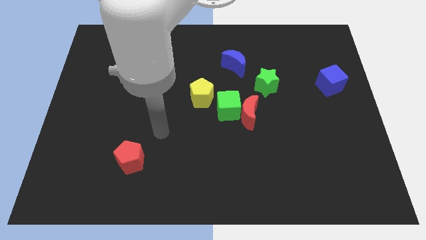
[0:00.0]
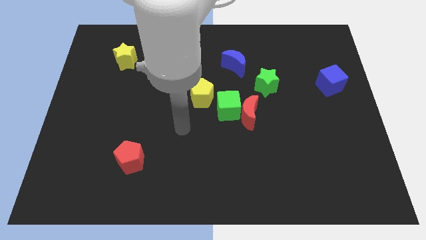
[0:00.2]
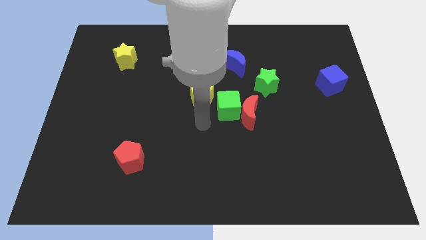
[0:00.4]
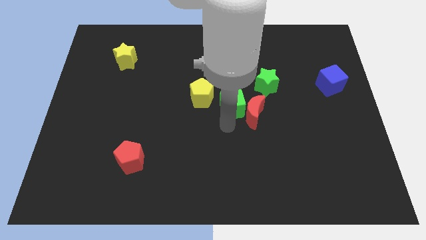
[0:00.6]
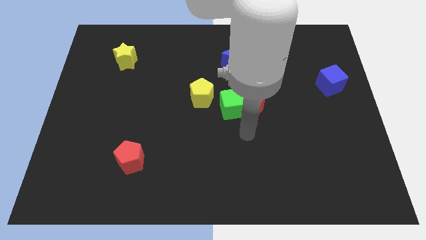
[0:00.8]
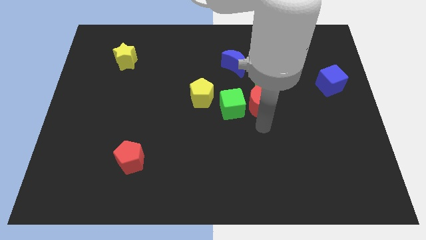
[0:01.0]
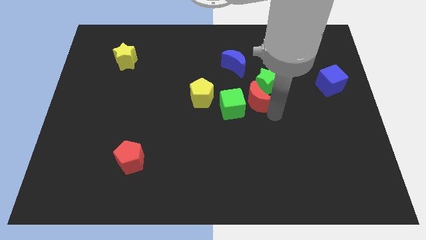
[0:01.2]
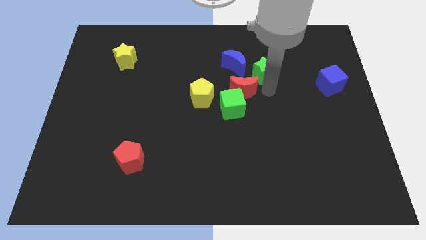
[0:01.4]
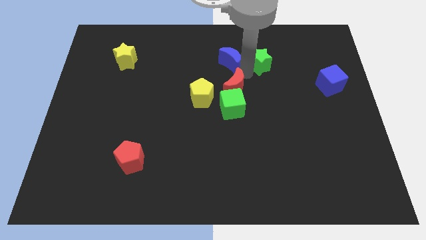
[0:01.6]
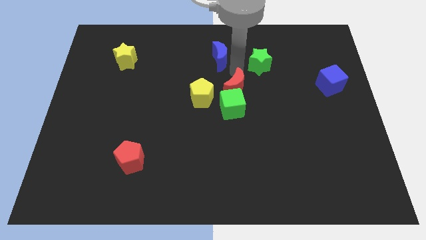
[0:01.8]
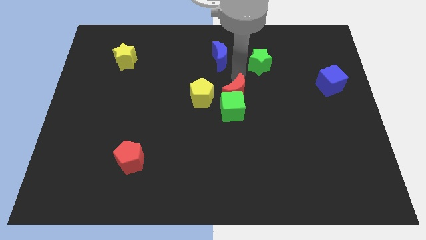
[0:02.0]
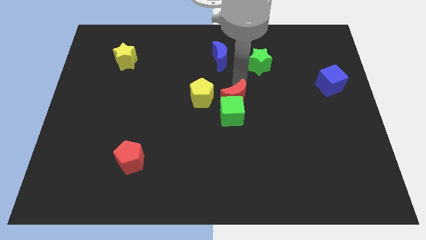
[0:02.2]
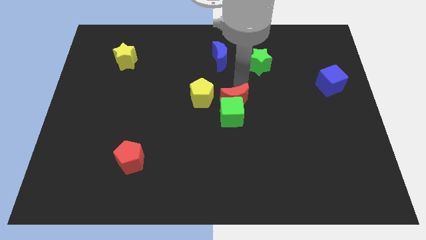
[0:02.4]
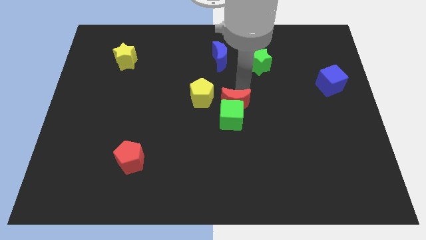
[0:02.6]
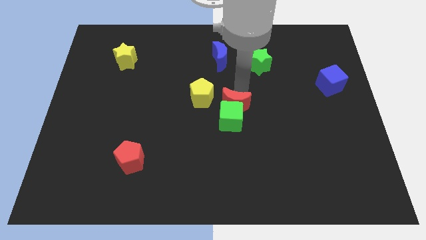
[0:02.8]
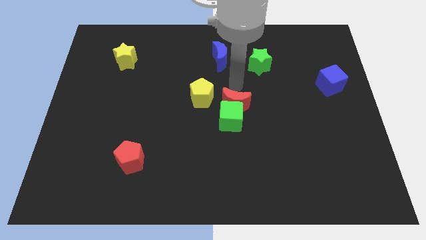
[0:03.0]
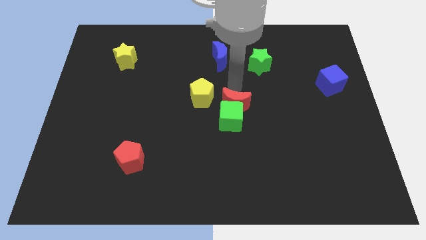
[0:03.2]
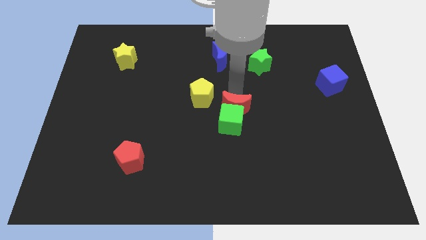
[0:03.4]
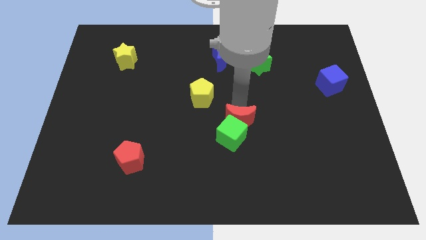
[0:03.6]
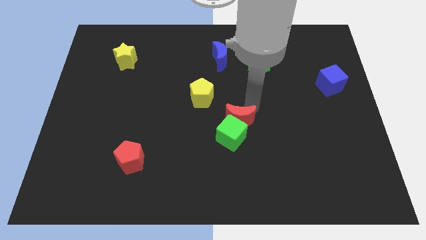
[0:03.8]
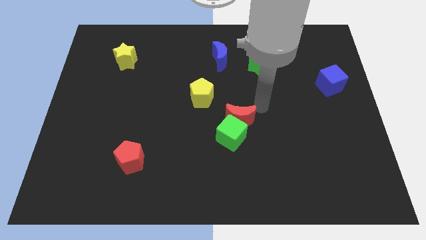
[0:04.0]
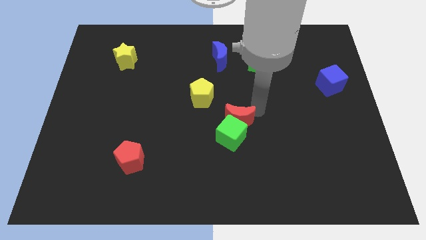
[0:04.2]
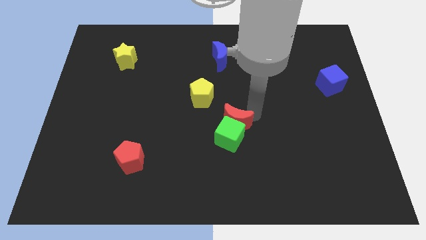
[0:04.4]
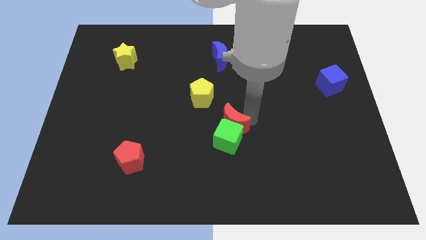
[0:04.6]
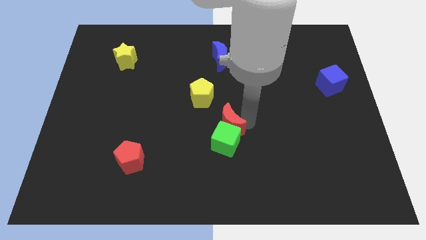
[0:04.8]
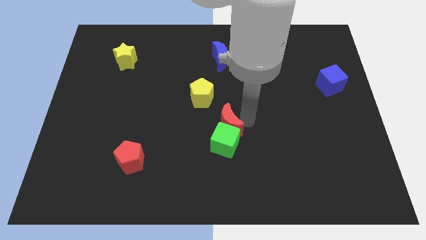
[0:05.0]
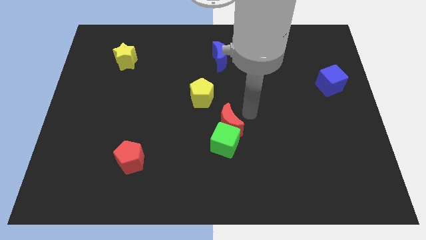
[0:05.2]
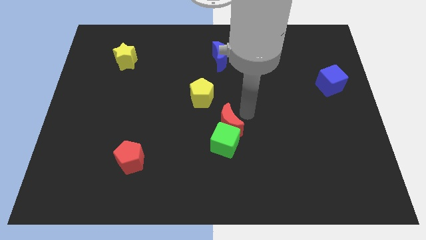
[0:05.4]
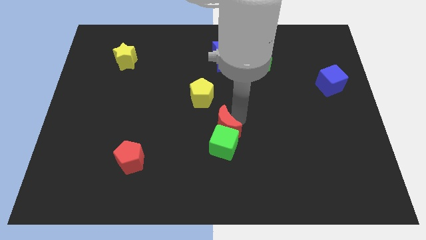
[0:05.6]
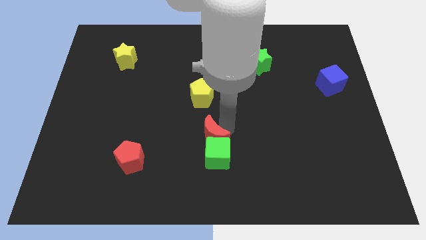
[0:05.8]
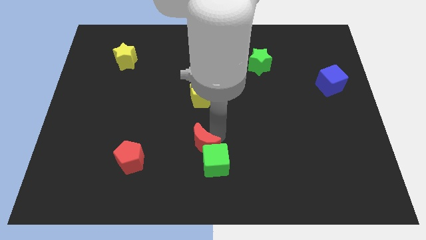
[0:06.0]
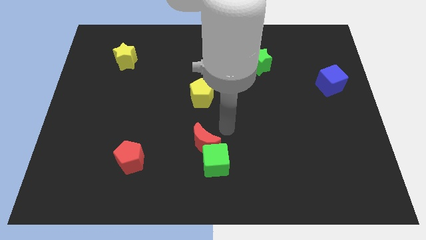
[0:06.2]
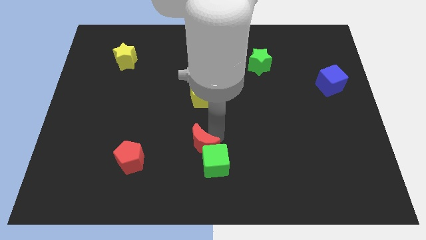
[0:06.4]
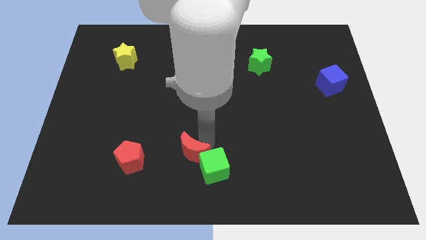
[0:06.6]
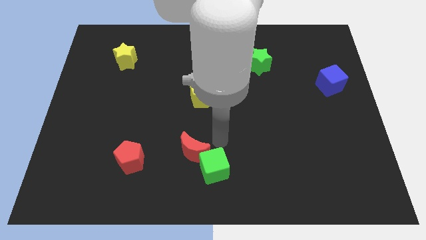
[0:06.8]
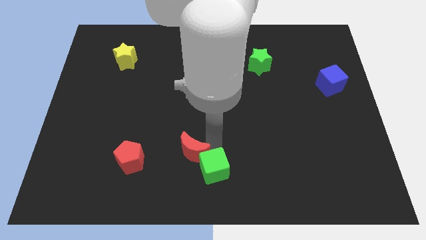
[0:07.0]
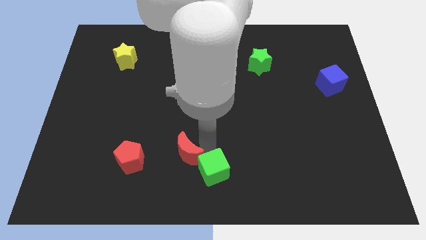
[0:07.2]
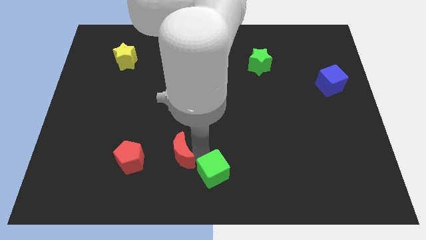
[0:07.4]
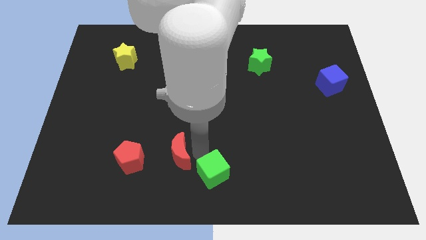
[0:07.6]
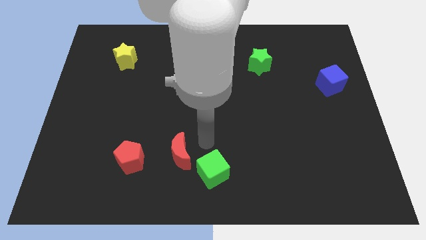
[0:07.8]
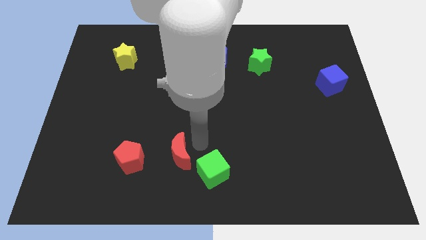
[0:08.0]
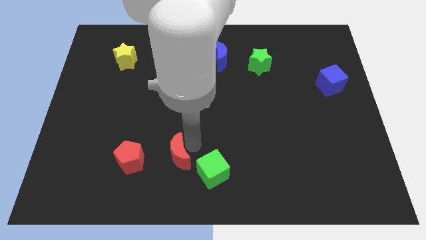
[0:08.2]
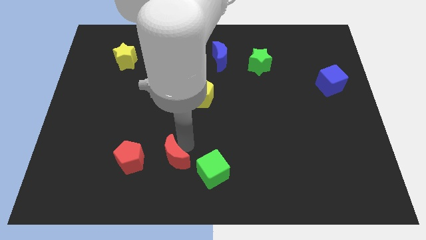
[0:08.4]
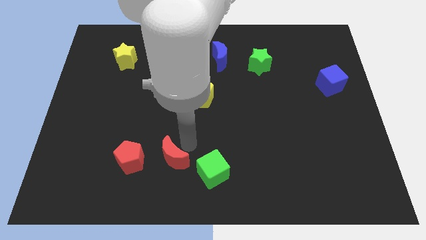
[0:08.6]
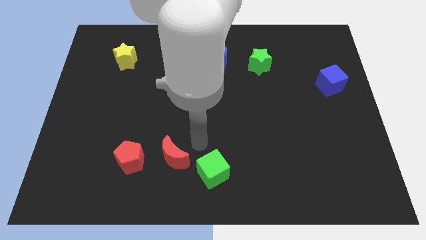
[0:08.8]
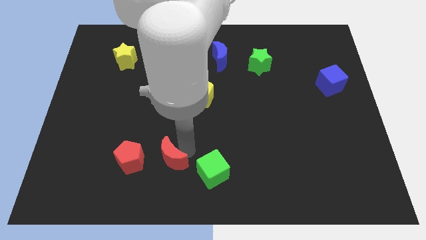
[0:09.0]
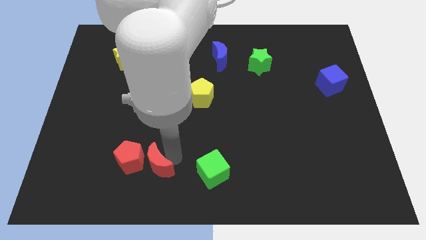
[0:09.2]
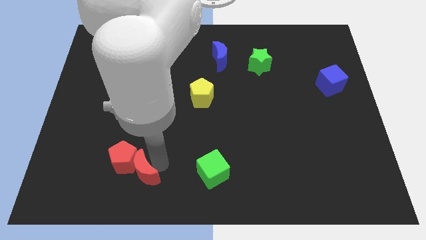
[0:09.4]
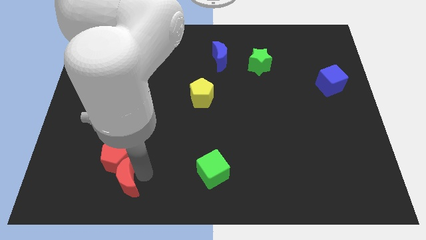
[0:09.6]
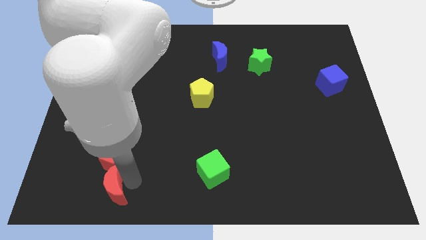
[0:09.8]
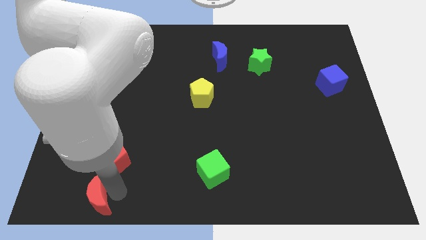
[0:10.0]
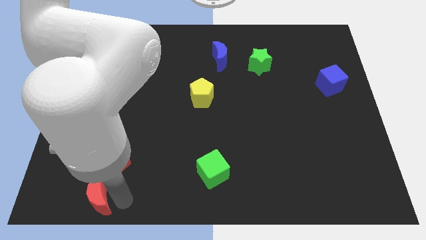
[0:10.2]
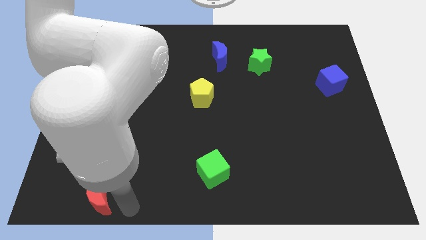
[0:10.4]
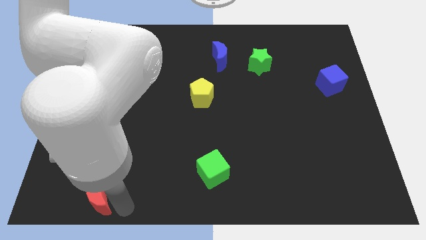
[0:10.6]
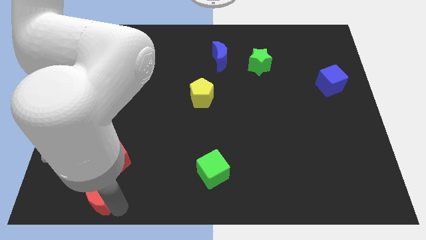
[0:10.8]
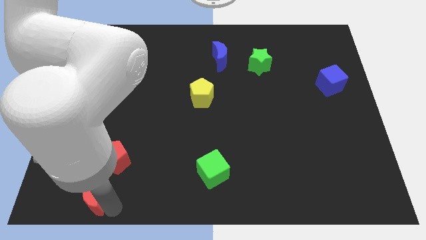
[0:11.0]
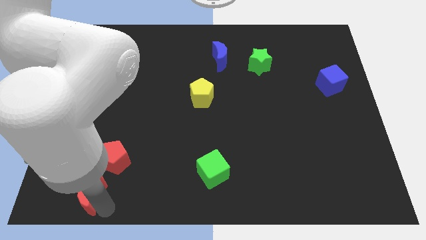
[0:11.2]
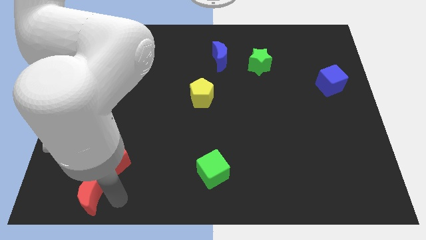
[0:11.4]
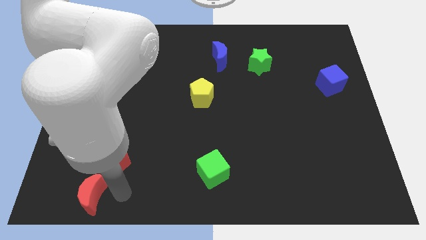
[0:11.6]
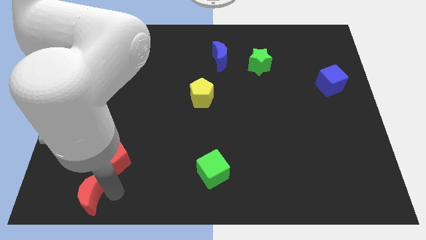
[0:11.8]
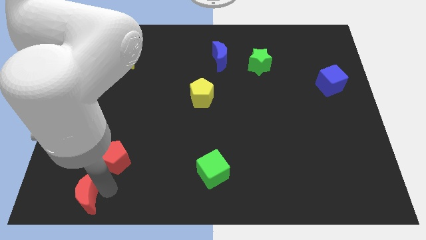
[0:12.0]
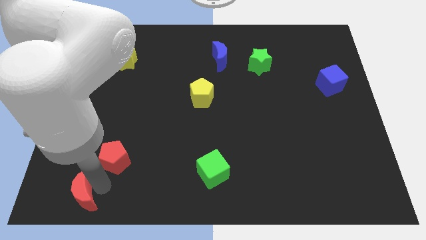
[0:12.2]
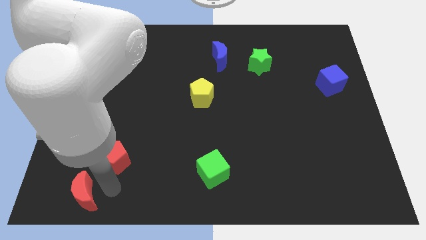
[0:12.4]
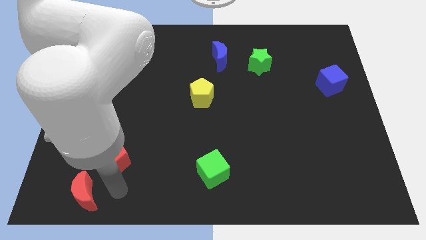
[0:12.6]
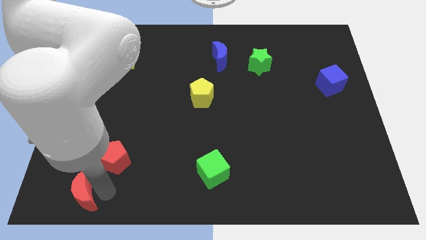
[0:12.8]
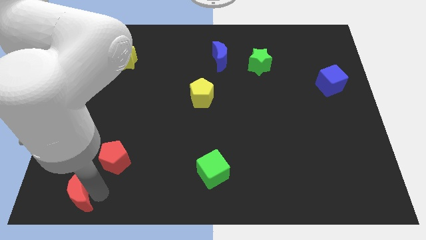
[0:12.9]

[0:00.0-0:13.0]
slide the red moon to the bottom left corner
